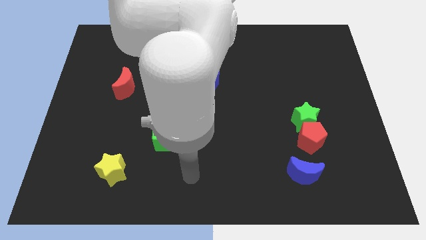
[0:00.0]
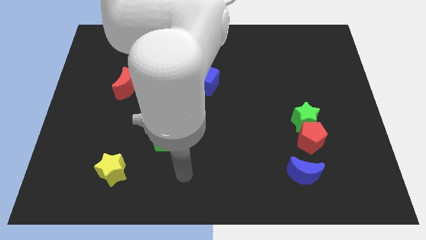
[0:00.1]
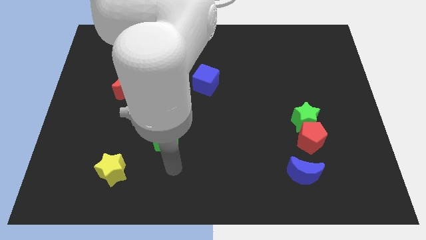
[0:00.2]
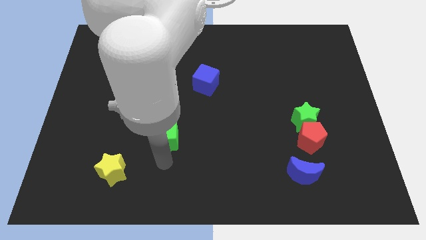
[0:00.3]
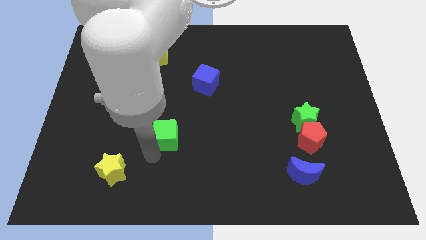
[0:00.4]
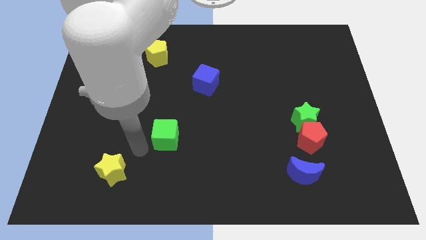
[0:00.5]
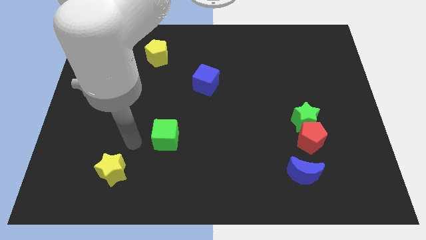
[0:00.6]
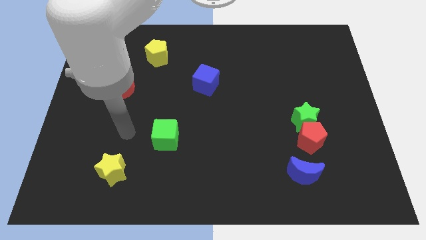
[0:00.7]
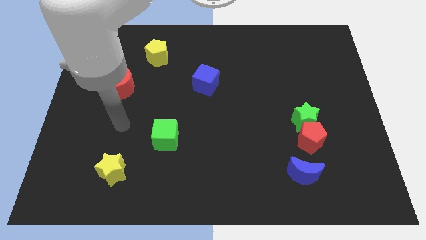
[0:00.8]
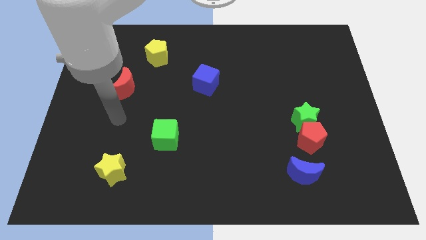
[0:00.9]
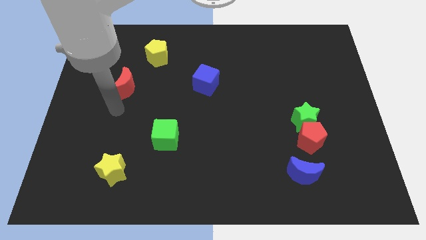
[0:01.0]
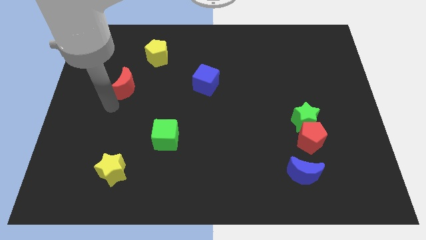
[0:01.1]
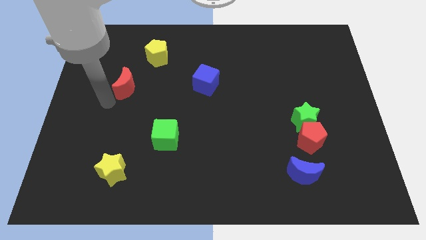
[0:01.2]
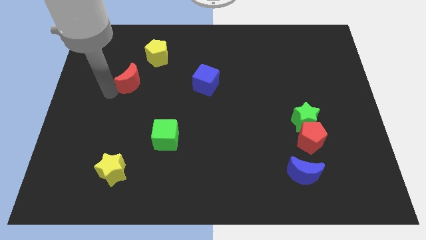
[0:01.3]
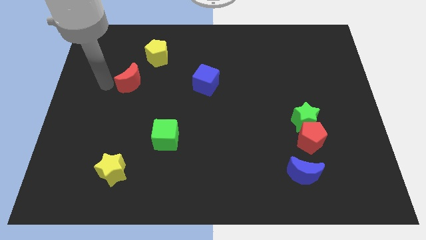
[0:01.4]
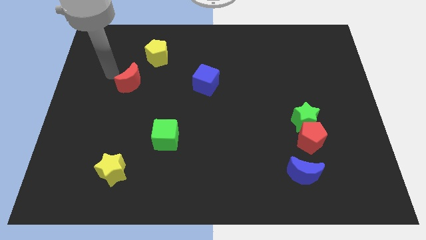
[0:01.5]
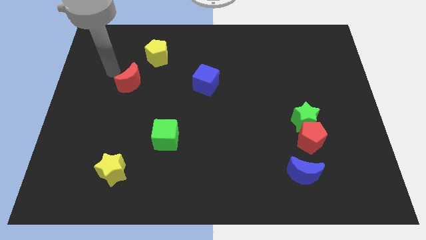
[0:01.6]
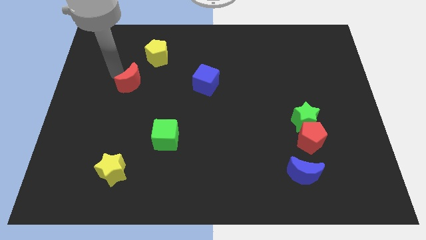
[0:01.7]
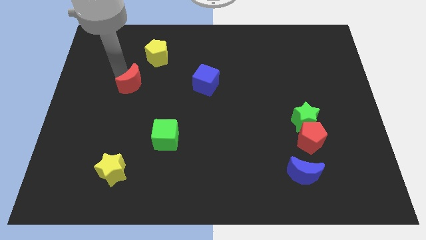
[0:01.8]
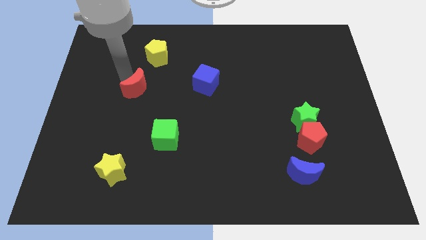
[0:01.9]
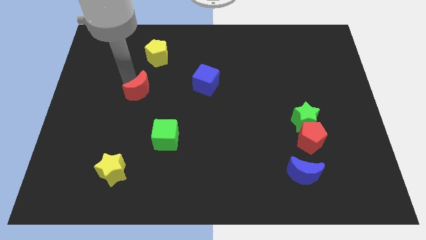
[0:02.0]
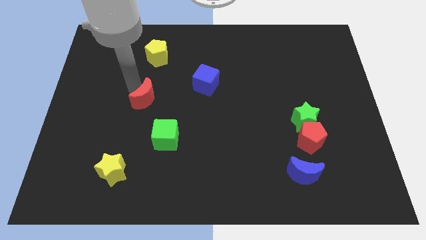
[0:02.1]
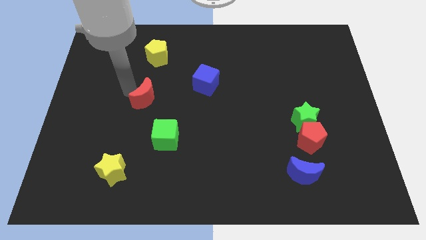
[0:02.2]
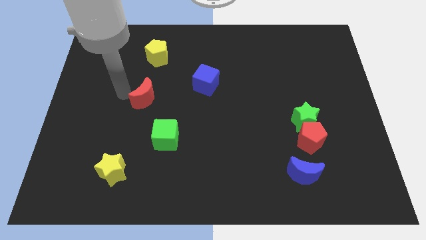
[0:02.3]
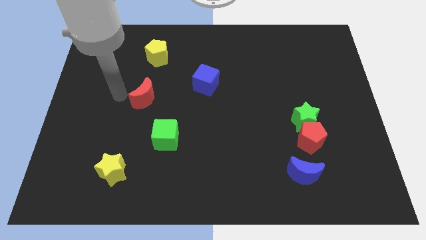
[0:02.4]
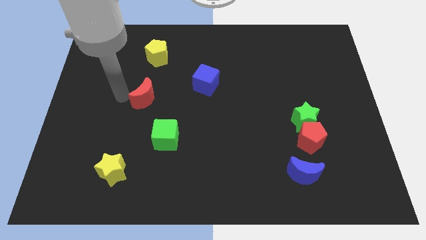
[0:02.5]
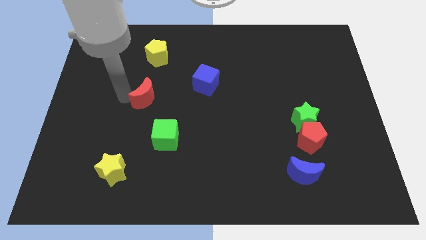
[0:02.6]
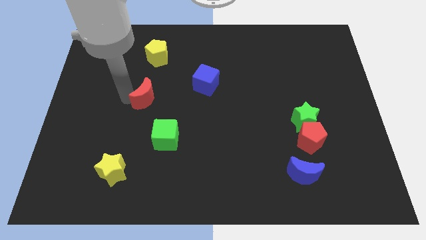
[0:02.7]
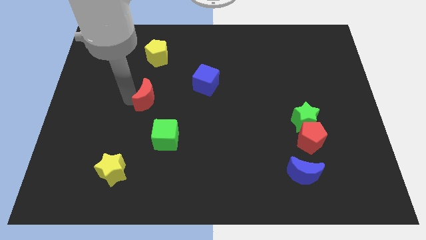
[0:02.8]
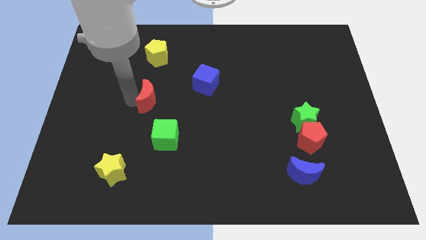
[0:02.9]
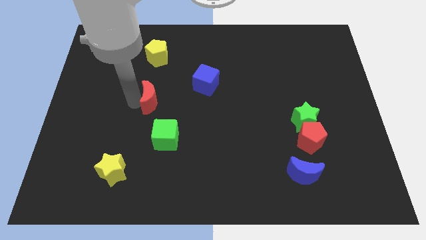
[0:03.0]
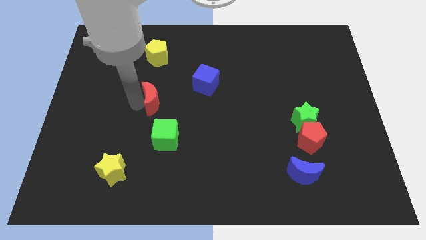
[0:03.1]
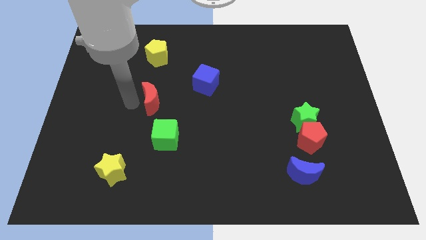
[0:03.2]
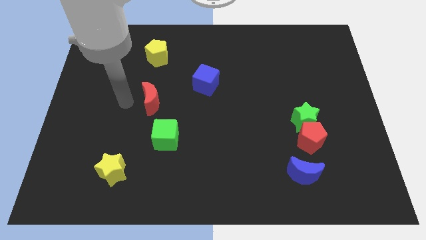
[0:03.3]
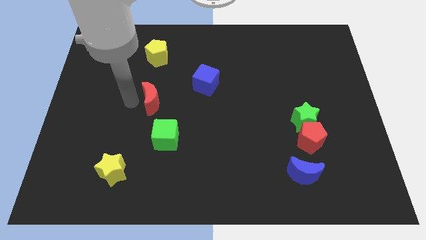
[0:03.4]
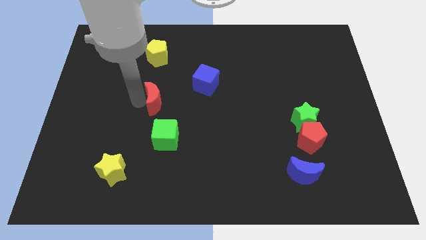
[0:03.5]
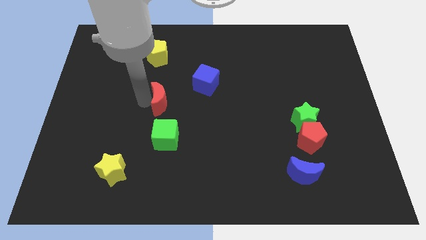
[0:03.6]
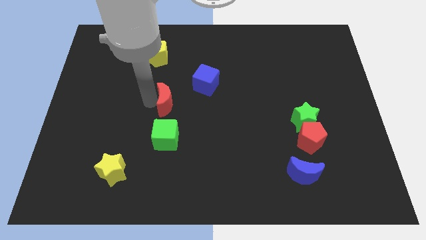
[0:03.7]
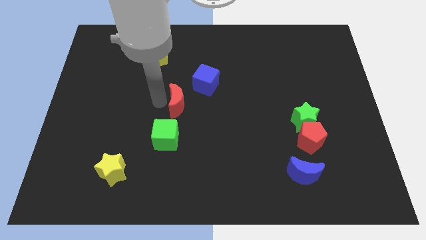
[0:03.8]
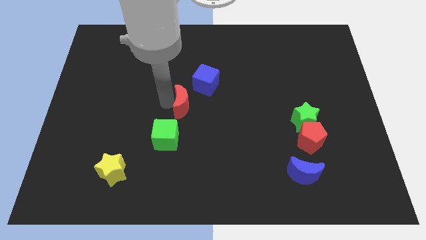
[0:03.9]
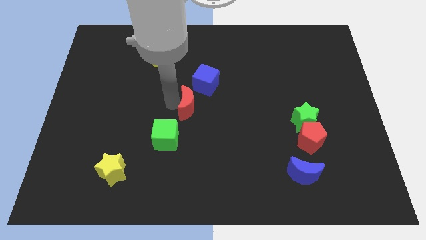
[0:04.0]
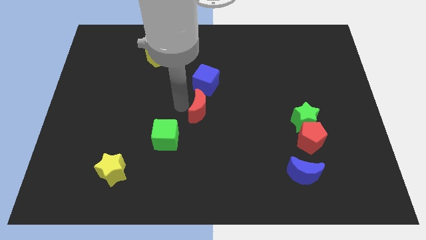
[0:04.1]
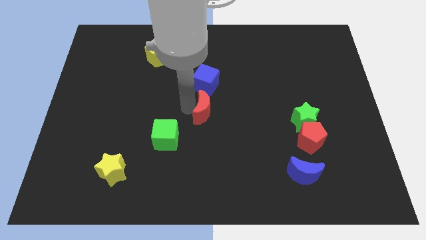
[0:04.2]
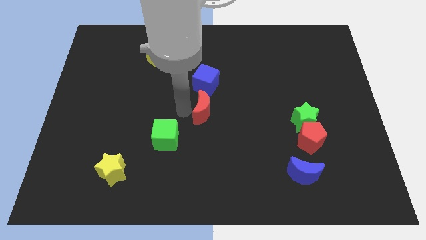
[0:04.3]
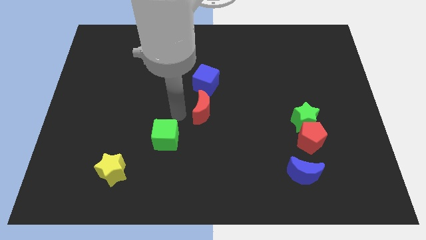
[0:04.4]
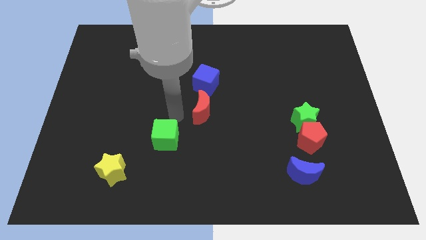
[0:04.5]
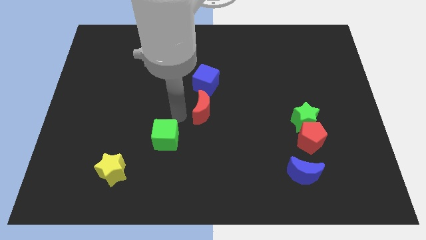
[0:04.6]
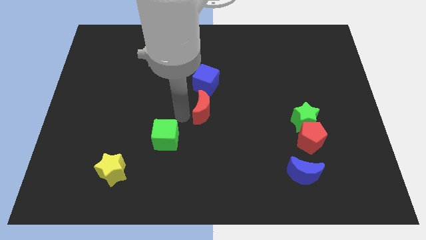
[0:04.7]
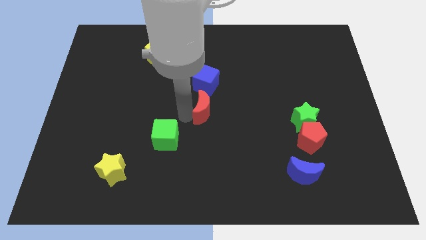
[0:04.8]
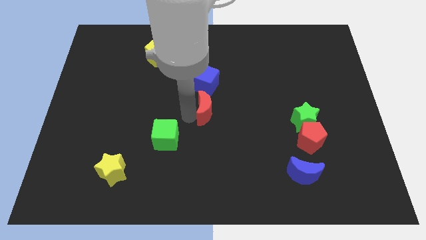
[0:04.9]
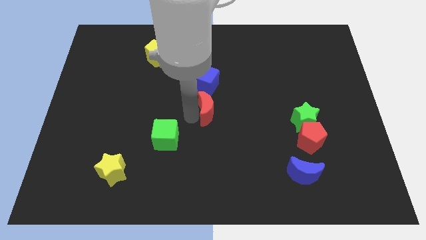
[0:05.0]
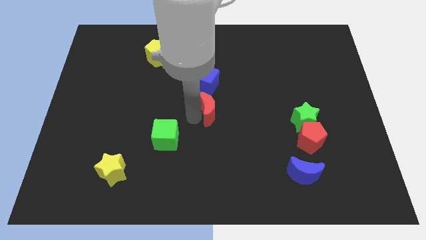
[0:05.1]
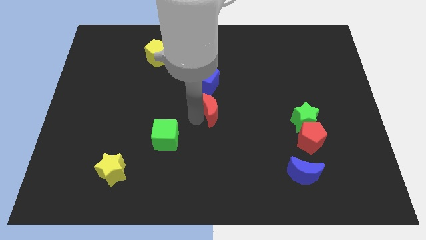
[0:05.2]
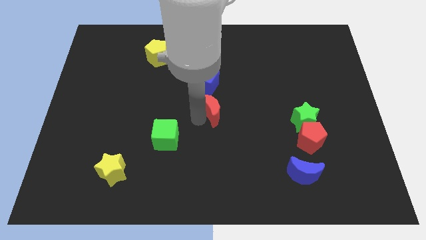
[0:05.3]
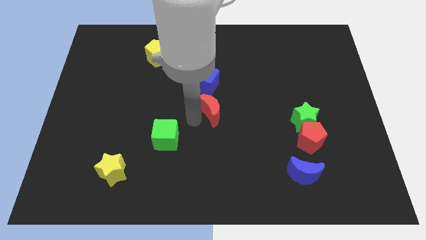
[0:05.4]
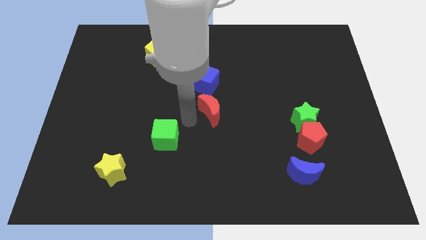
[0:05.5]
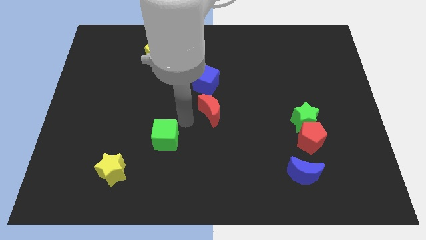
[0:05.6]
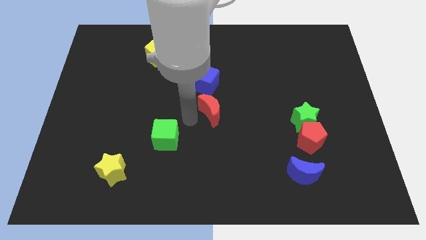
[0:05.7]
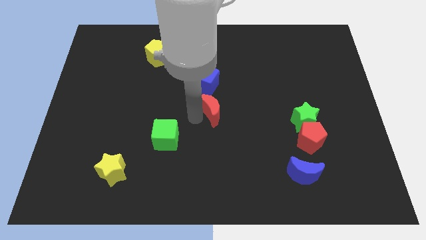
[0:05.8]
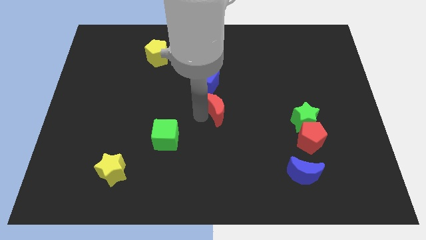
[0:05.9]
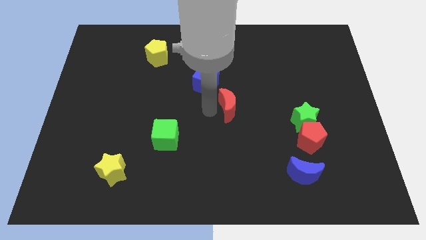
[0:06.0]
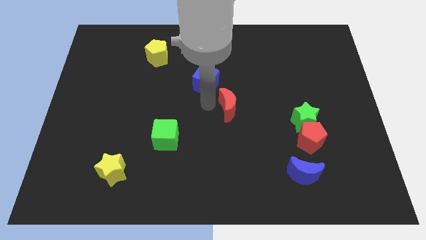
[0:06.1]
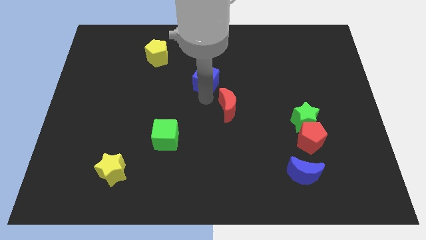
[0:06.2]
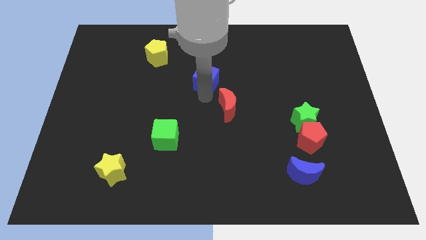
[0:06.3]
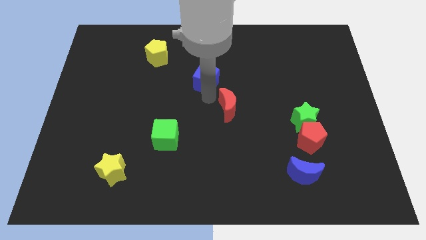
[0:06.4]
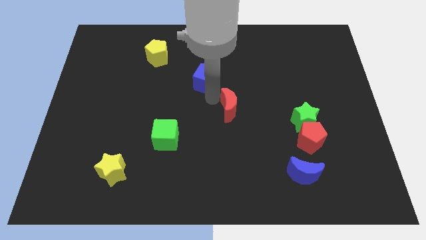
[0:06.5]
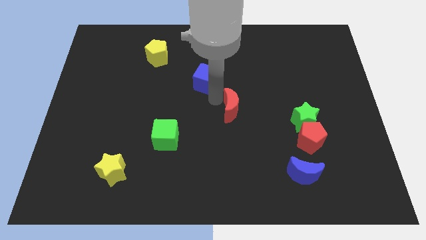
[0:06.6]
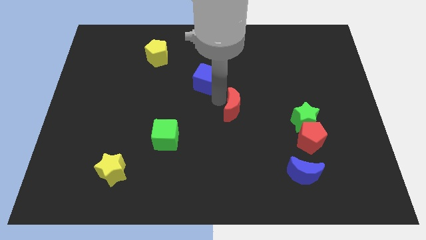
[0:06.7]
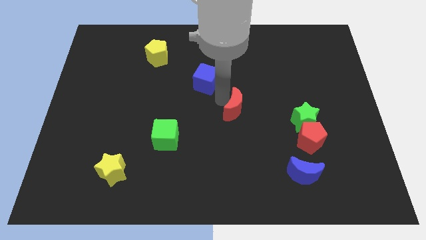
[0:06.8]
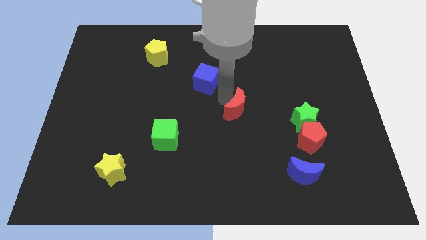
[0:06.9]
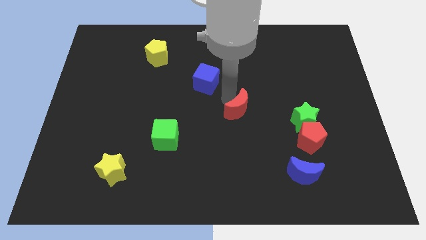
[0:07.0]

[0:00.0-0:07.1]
push the red moon to the left side of the green star

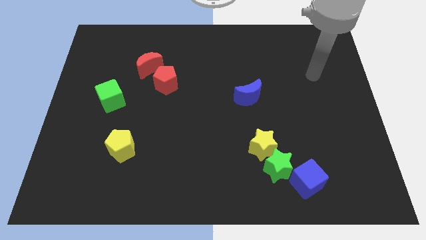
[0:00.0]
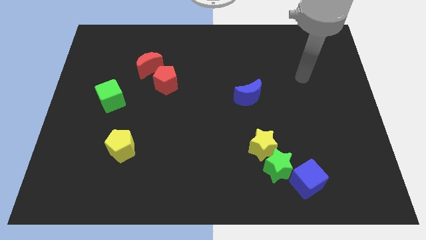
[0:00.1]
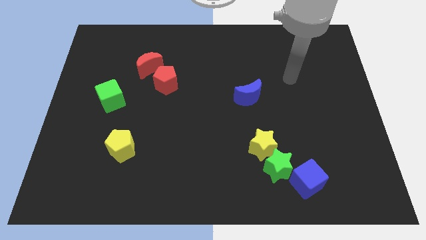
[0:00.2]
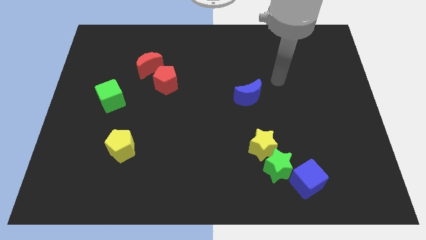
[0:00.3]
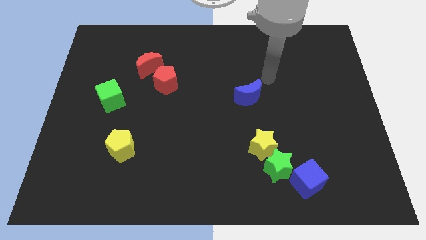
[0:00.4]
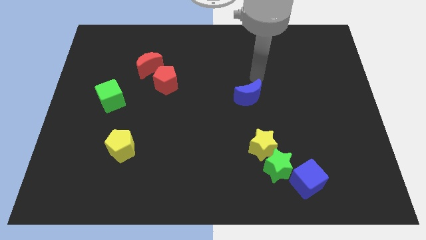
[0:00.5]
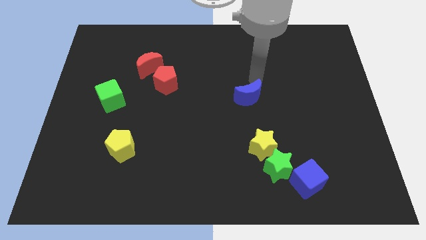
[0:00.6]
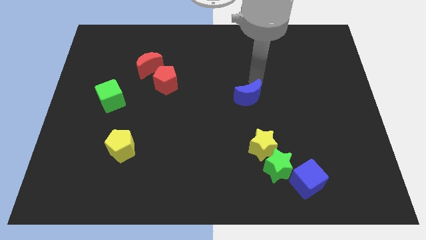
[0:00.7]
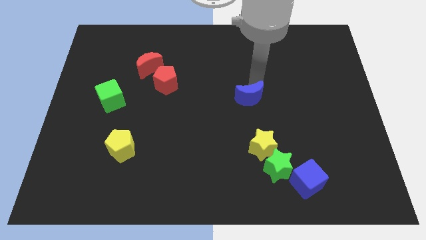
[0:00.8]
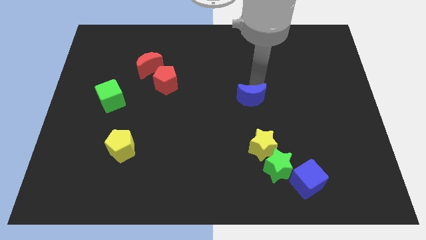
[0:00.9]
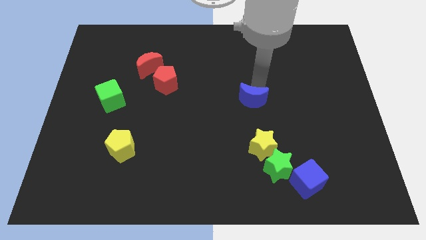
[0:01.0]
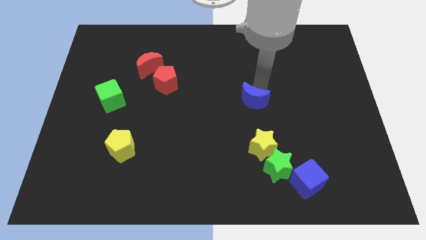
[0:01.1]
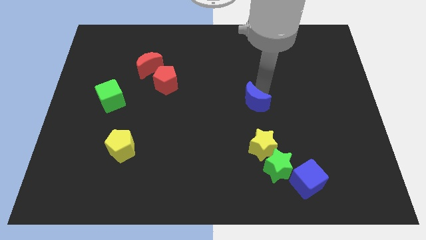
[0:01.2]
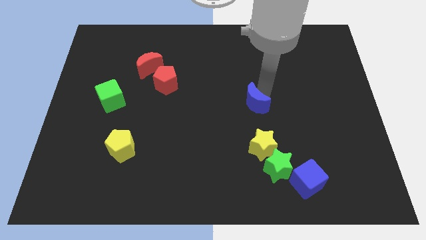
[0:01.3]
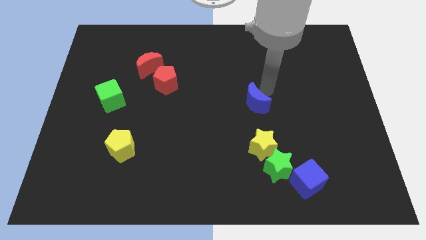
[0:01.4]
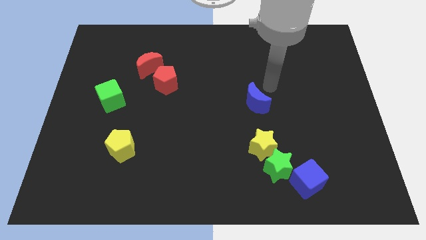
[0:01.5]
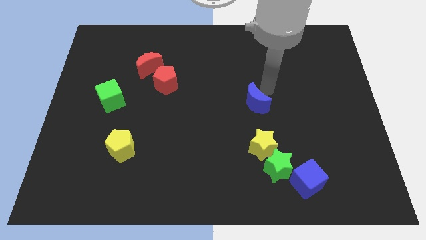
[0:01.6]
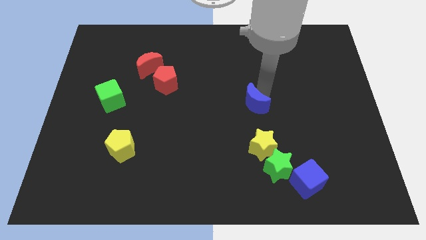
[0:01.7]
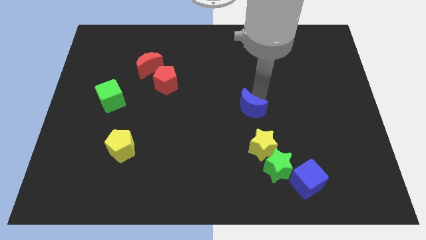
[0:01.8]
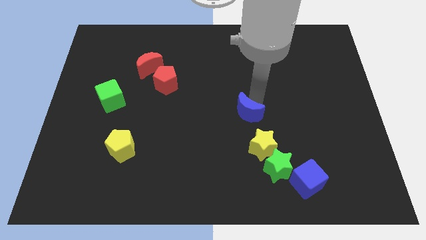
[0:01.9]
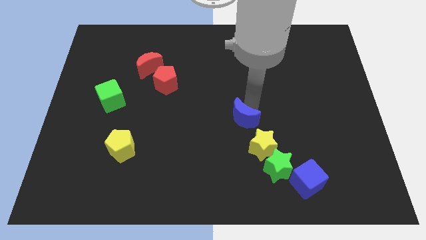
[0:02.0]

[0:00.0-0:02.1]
put the blue moon to the top left side of the yellow star
